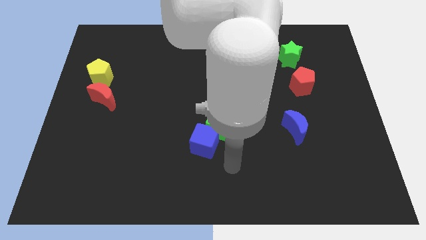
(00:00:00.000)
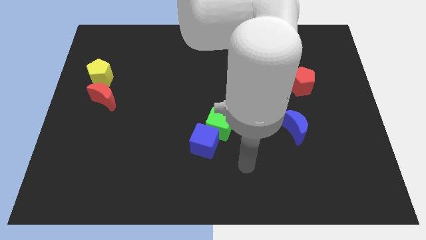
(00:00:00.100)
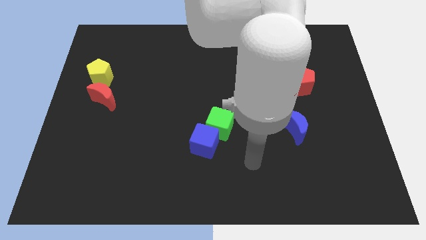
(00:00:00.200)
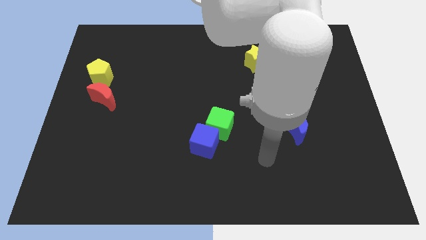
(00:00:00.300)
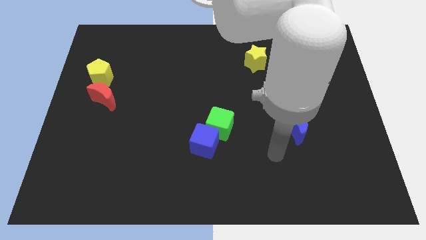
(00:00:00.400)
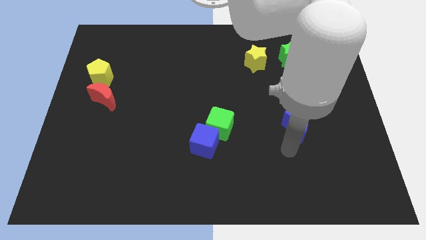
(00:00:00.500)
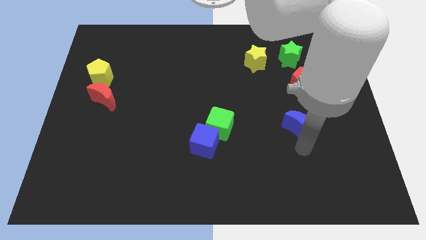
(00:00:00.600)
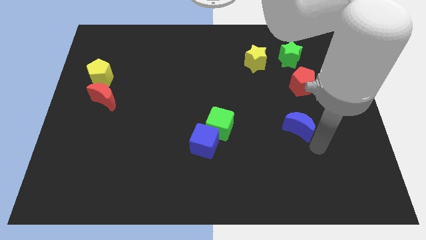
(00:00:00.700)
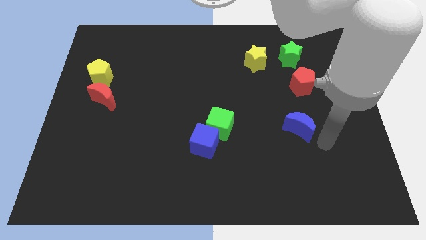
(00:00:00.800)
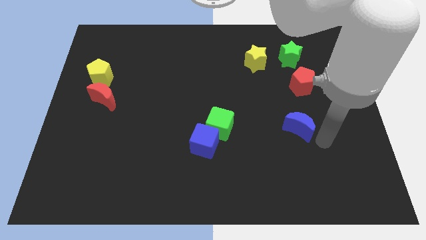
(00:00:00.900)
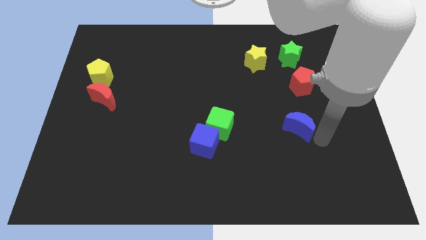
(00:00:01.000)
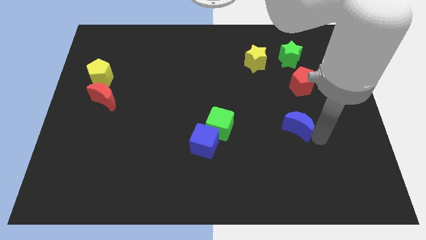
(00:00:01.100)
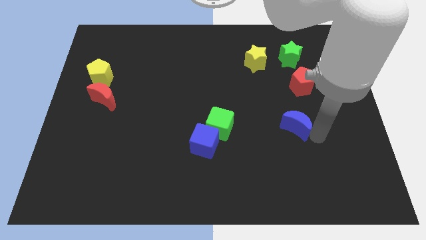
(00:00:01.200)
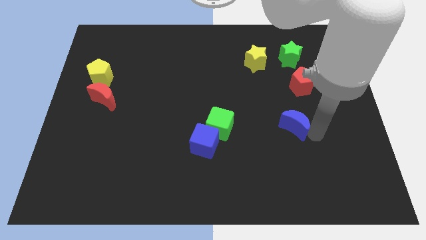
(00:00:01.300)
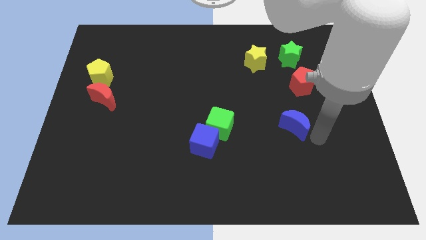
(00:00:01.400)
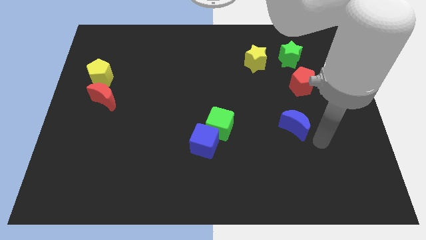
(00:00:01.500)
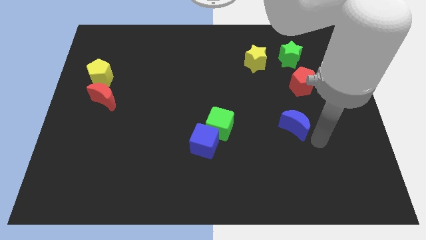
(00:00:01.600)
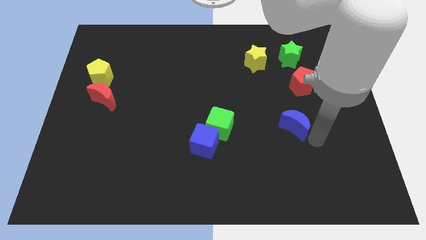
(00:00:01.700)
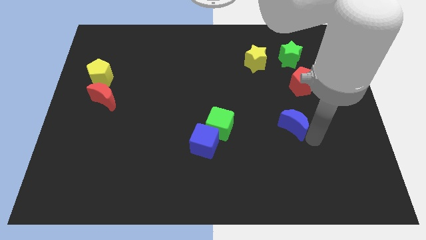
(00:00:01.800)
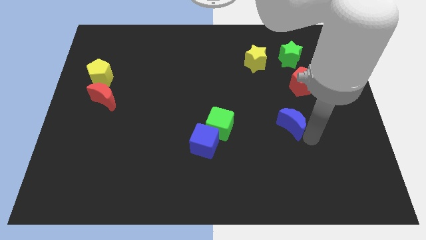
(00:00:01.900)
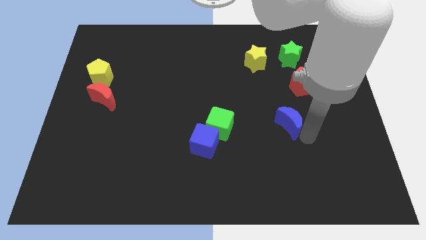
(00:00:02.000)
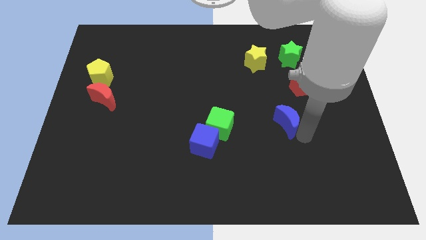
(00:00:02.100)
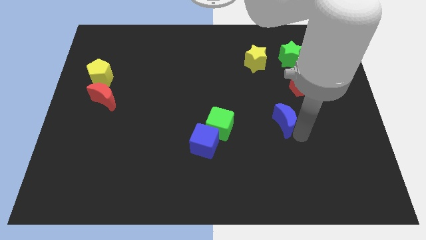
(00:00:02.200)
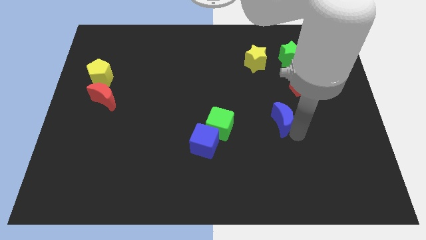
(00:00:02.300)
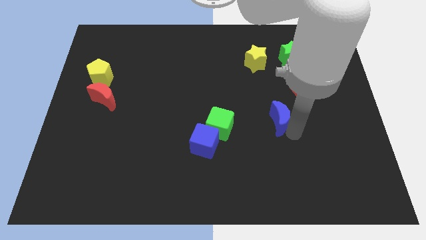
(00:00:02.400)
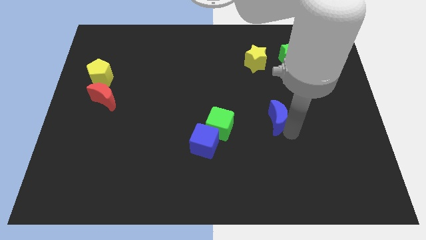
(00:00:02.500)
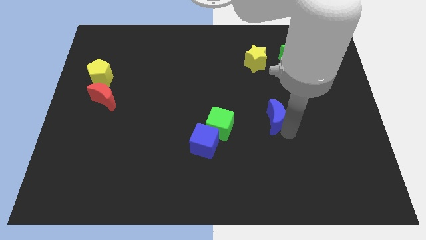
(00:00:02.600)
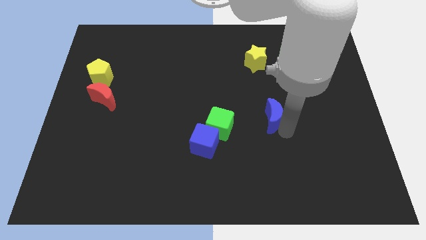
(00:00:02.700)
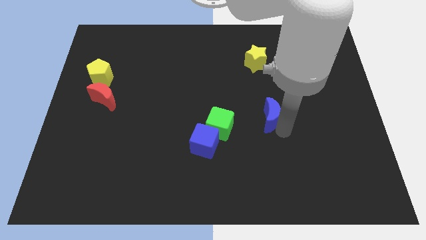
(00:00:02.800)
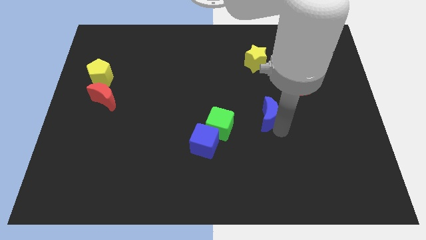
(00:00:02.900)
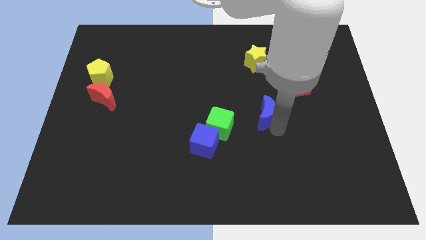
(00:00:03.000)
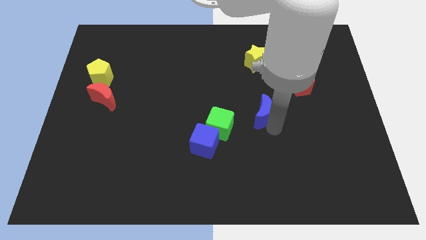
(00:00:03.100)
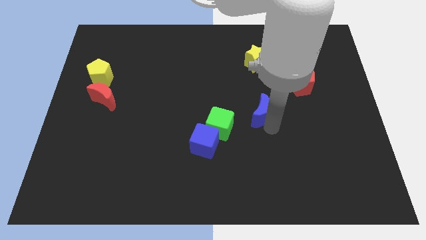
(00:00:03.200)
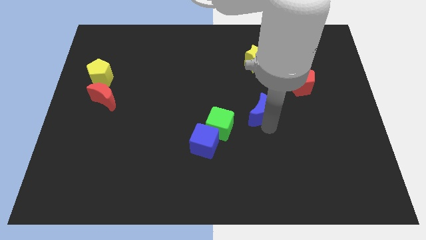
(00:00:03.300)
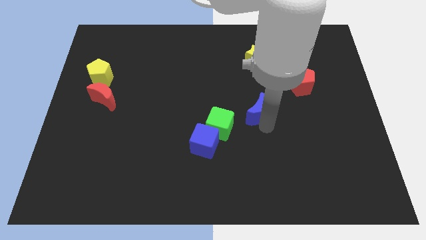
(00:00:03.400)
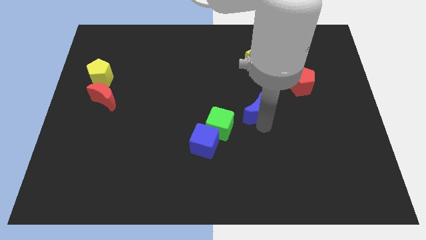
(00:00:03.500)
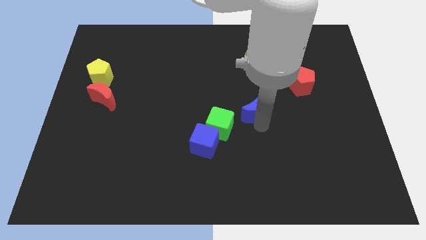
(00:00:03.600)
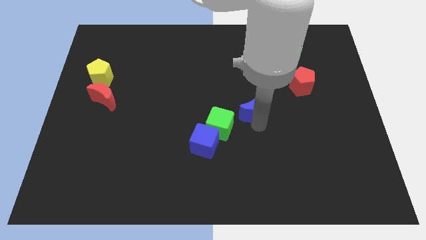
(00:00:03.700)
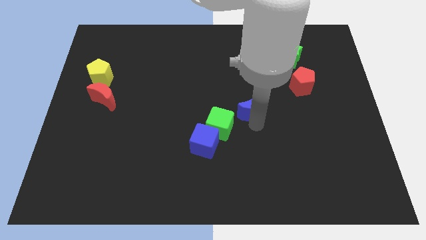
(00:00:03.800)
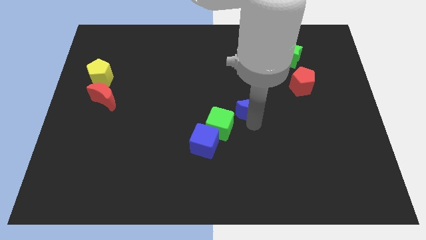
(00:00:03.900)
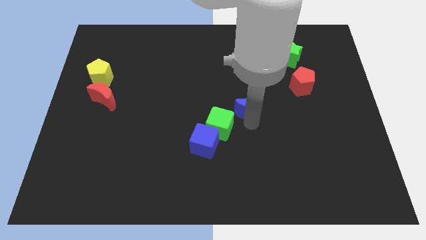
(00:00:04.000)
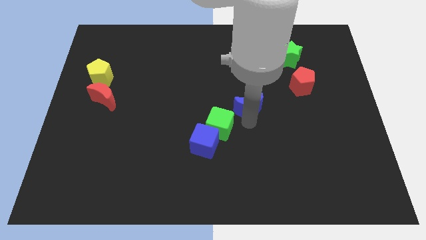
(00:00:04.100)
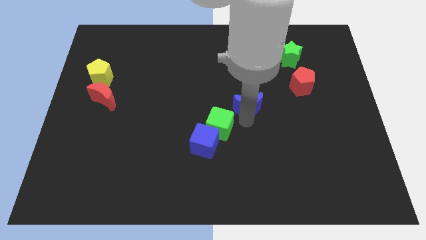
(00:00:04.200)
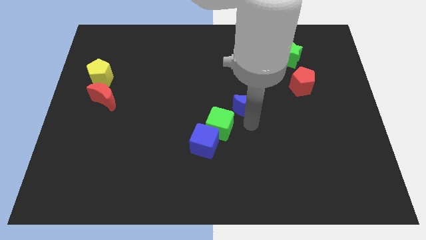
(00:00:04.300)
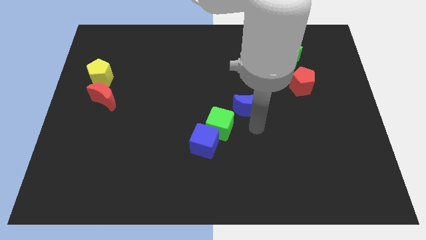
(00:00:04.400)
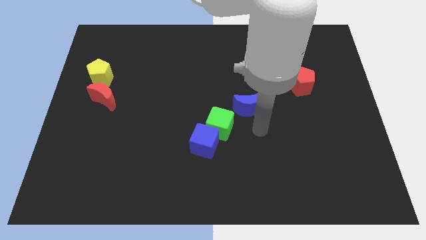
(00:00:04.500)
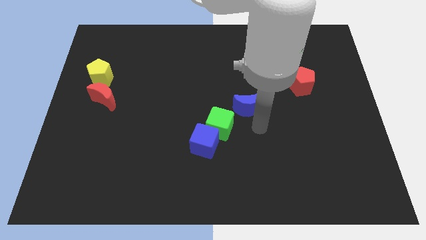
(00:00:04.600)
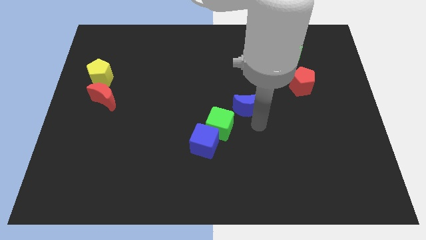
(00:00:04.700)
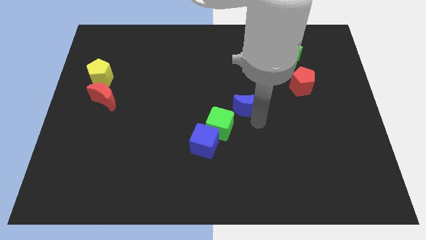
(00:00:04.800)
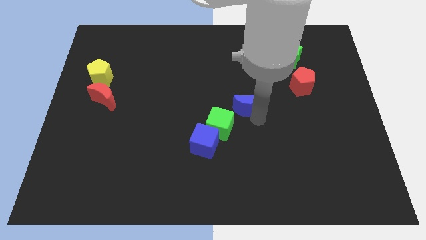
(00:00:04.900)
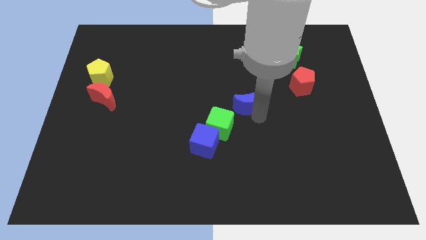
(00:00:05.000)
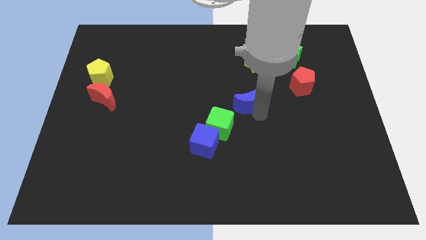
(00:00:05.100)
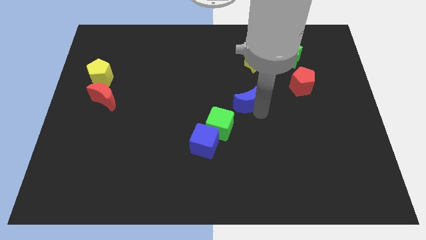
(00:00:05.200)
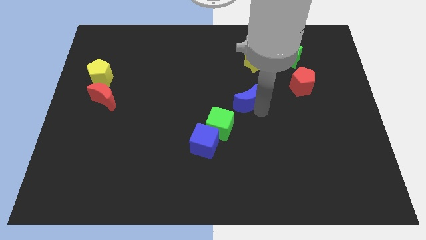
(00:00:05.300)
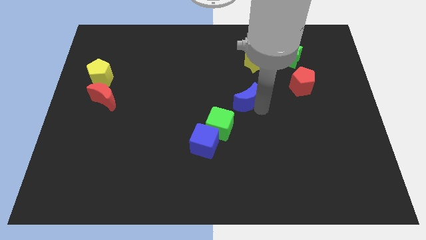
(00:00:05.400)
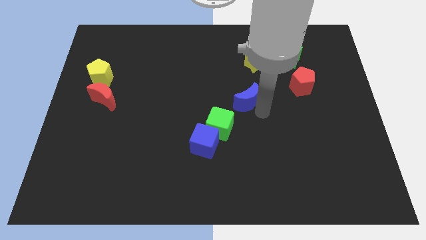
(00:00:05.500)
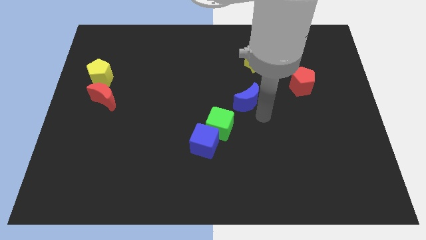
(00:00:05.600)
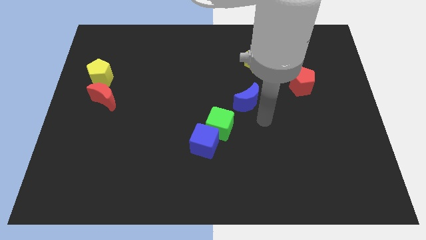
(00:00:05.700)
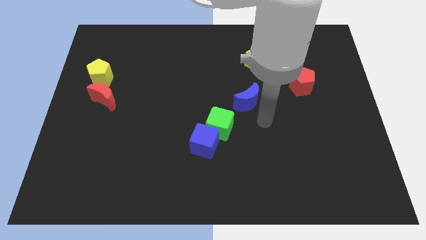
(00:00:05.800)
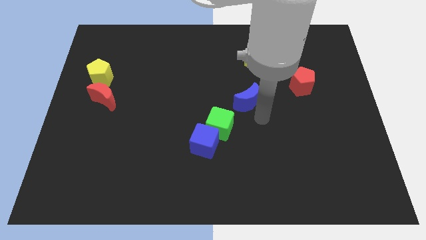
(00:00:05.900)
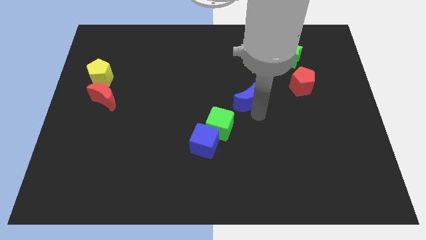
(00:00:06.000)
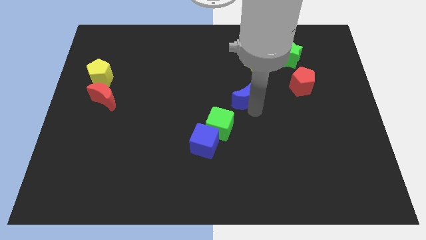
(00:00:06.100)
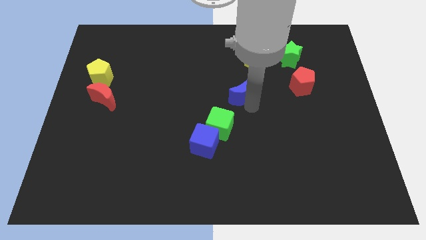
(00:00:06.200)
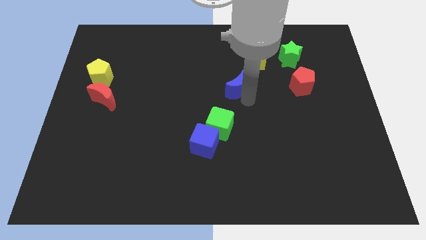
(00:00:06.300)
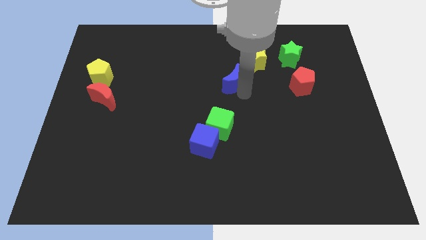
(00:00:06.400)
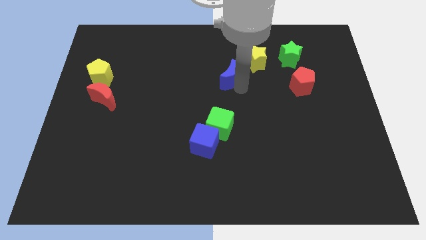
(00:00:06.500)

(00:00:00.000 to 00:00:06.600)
slide the blue moon upwards and left diagonally

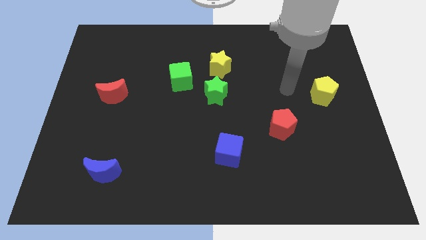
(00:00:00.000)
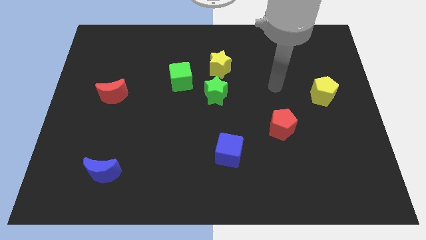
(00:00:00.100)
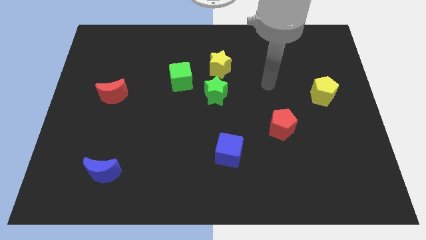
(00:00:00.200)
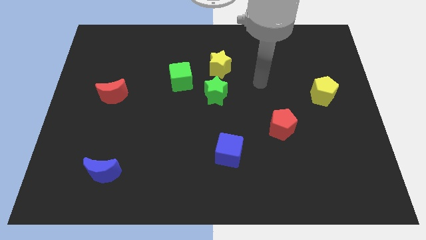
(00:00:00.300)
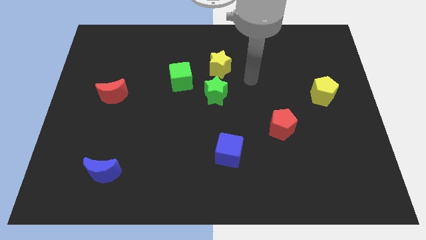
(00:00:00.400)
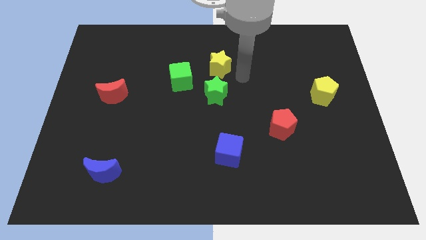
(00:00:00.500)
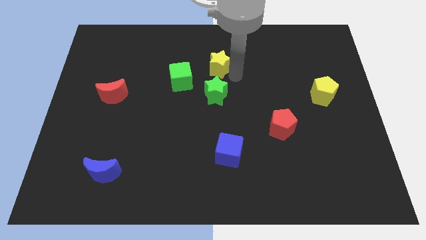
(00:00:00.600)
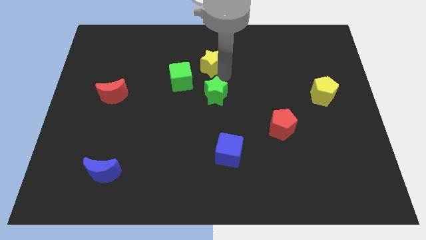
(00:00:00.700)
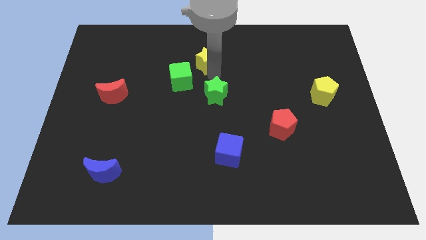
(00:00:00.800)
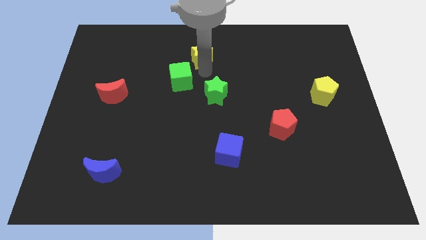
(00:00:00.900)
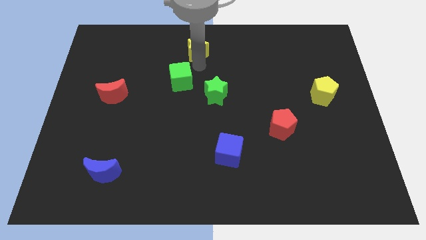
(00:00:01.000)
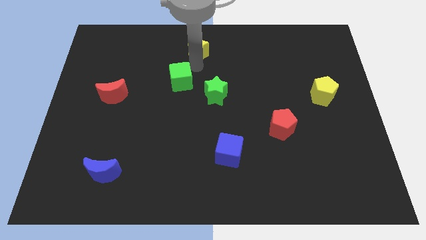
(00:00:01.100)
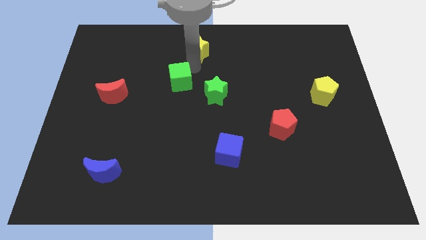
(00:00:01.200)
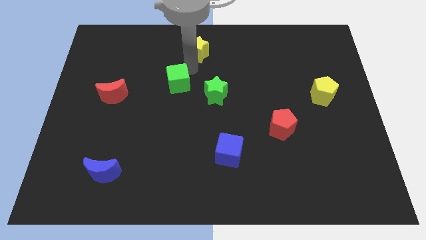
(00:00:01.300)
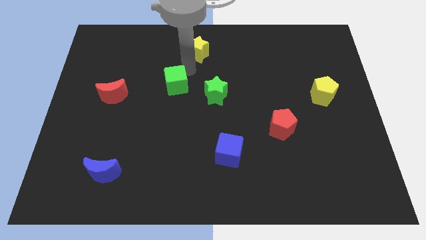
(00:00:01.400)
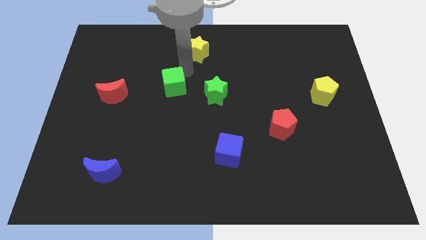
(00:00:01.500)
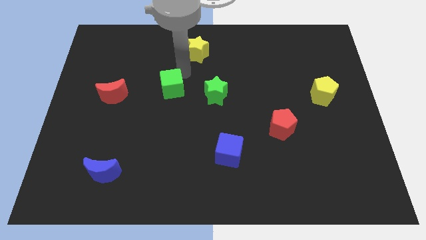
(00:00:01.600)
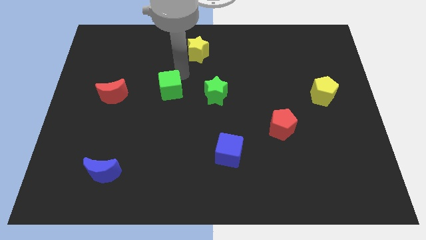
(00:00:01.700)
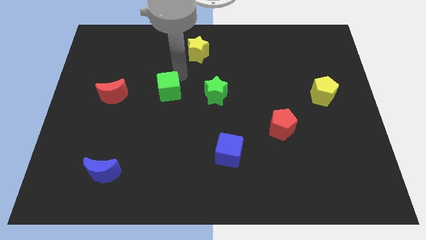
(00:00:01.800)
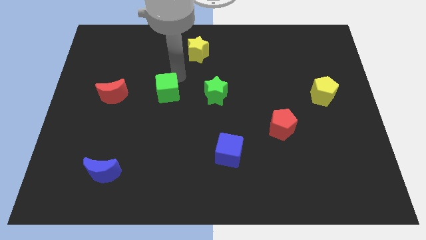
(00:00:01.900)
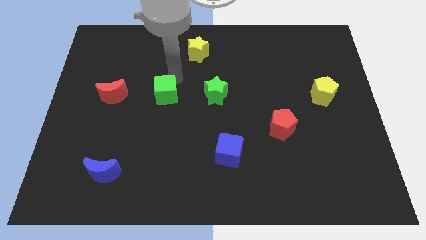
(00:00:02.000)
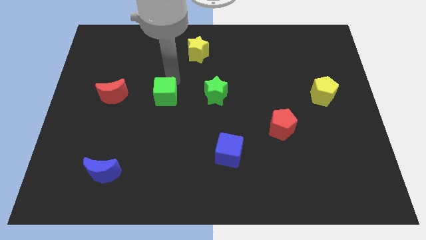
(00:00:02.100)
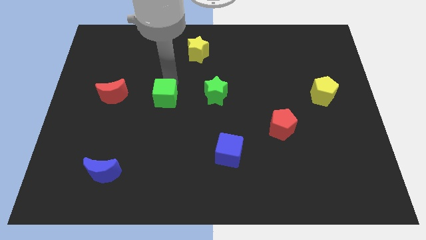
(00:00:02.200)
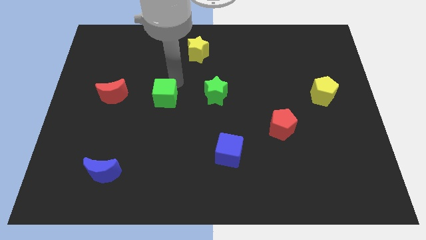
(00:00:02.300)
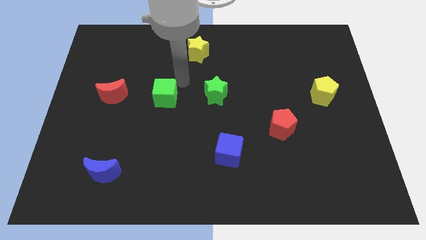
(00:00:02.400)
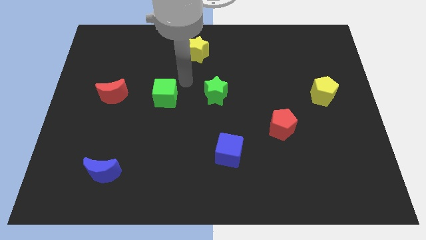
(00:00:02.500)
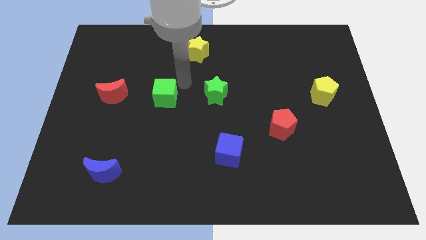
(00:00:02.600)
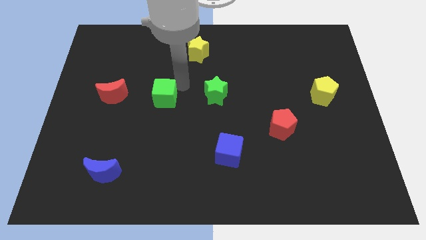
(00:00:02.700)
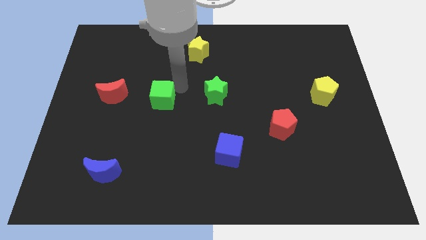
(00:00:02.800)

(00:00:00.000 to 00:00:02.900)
slightly move the green cube downwards and to the left
